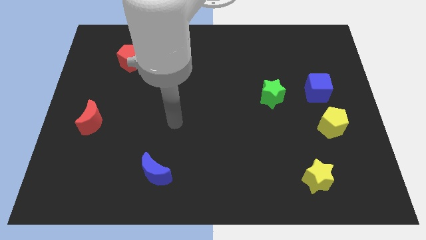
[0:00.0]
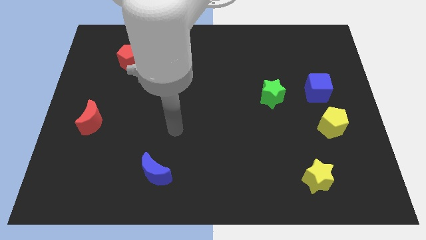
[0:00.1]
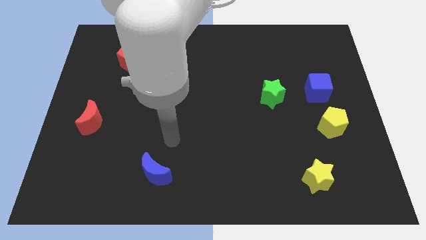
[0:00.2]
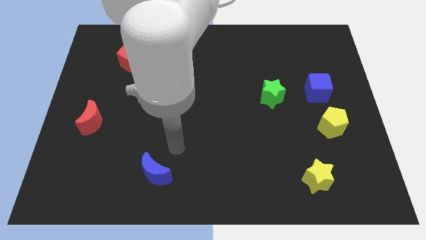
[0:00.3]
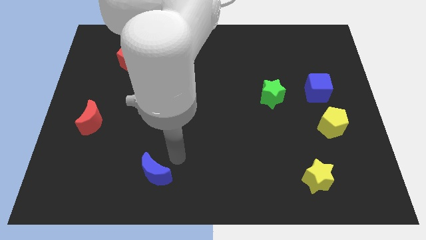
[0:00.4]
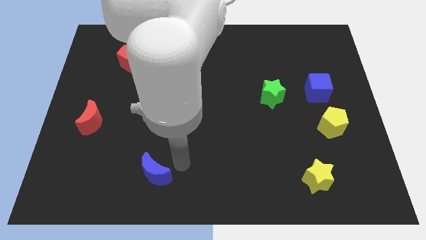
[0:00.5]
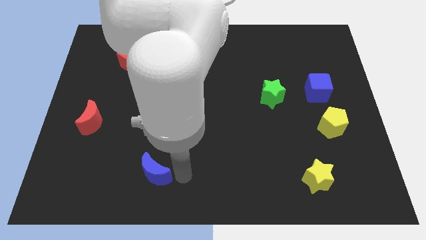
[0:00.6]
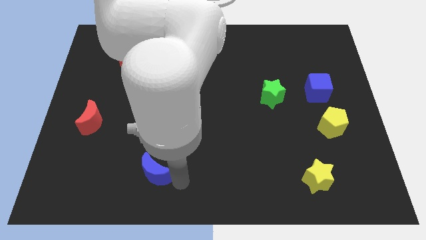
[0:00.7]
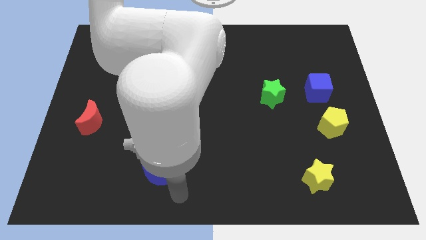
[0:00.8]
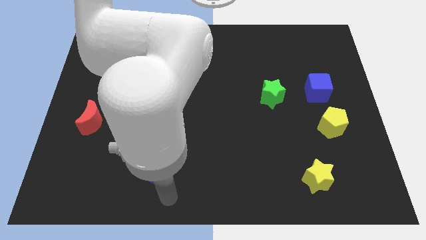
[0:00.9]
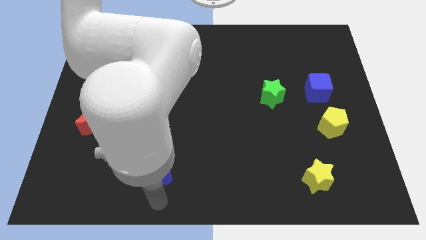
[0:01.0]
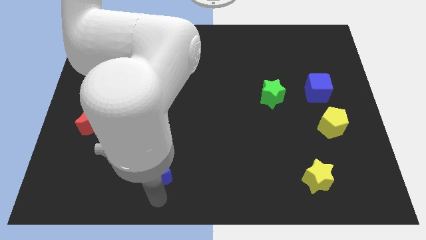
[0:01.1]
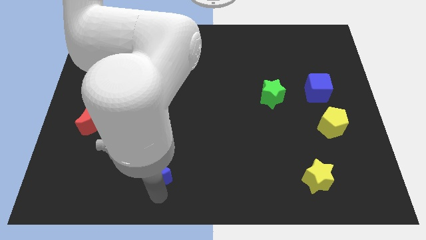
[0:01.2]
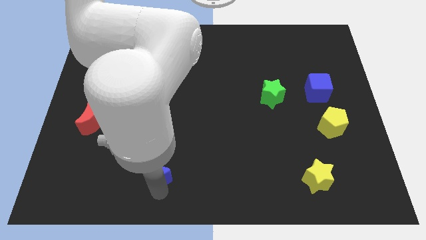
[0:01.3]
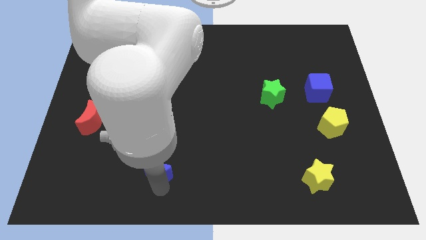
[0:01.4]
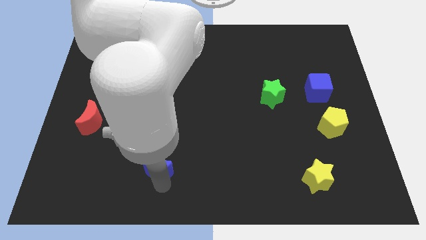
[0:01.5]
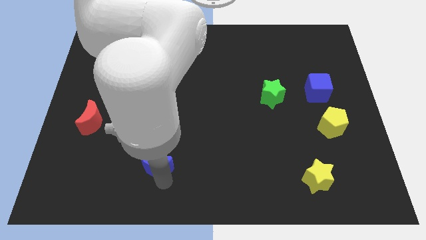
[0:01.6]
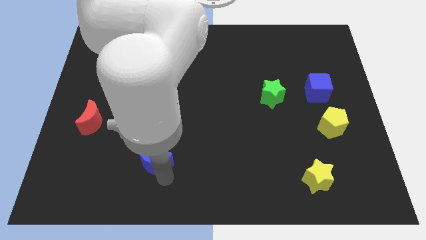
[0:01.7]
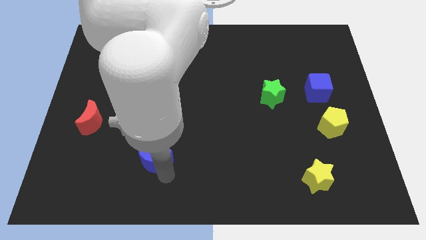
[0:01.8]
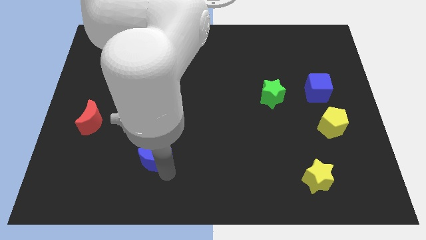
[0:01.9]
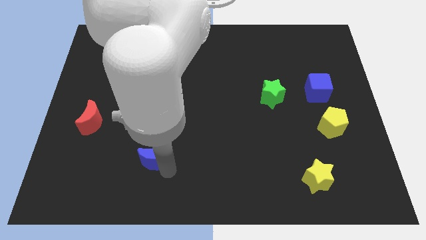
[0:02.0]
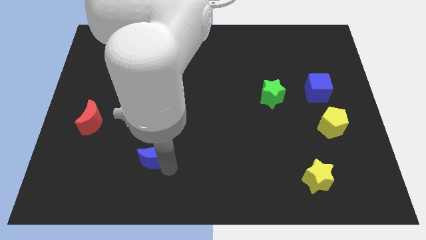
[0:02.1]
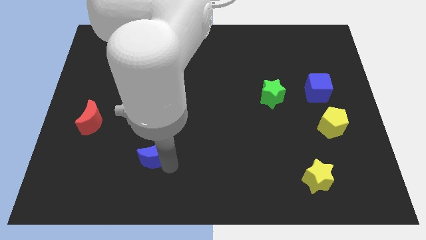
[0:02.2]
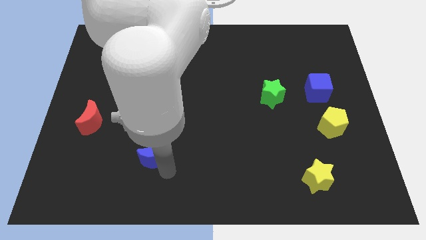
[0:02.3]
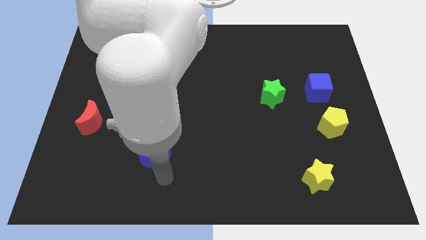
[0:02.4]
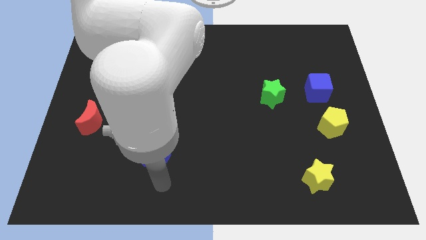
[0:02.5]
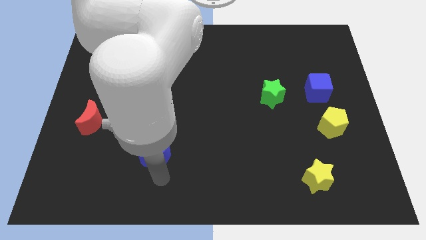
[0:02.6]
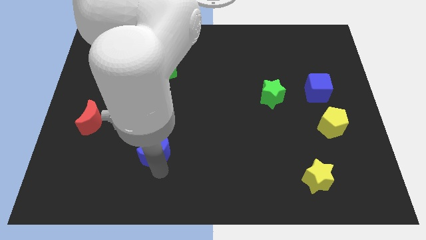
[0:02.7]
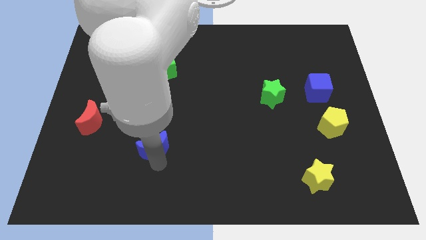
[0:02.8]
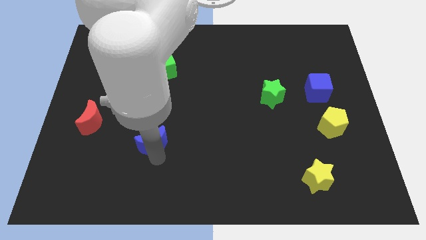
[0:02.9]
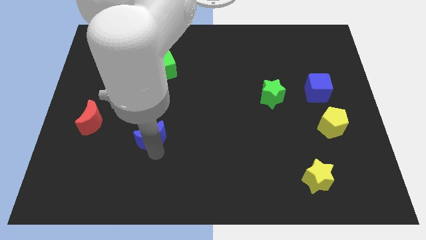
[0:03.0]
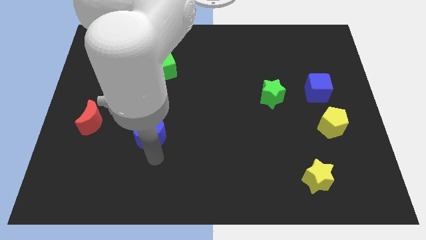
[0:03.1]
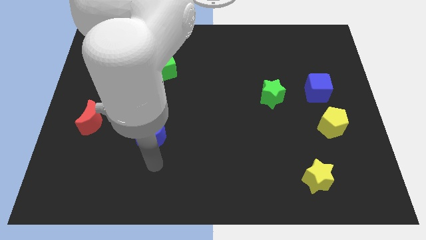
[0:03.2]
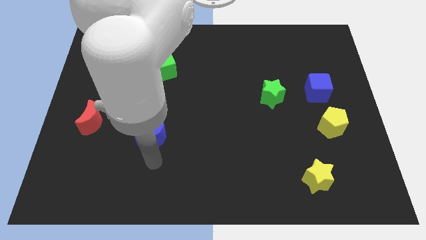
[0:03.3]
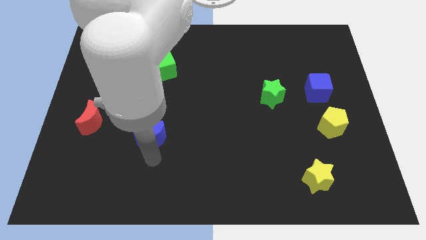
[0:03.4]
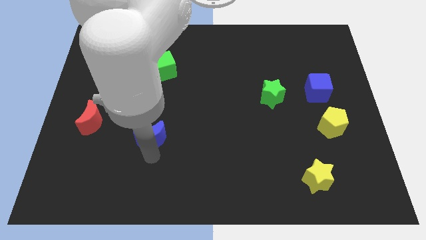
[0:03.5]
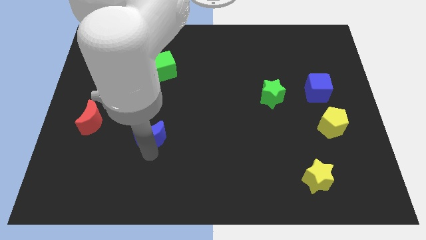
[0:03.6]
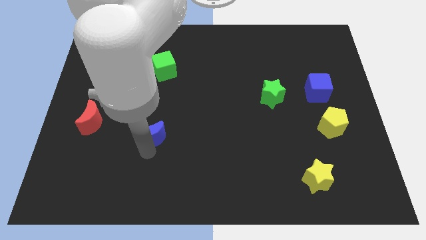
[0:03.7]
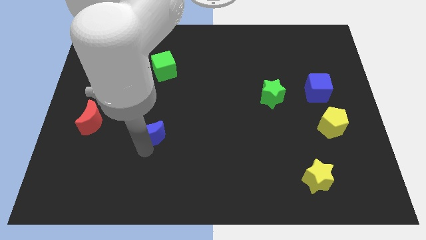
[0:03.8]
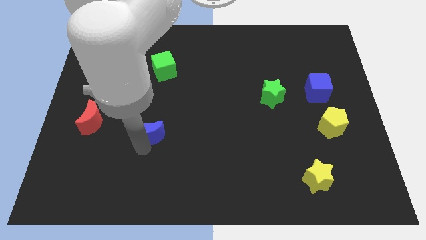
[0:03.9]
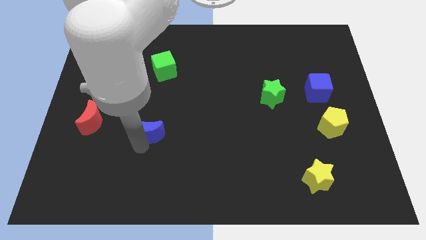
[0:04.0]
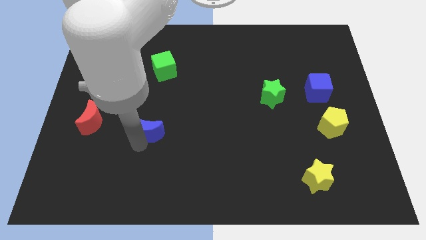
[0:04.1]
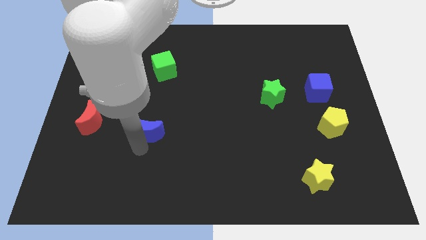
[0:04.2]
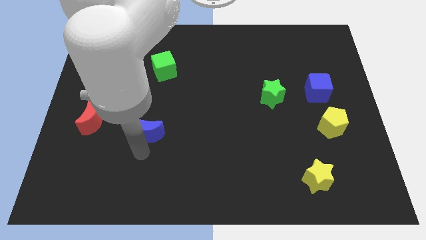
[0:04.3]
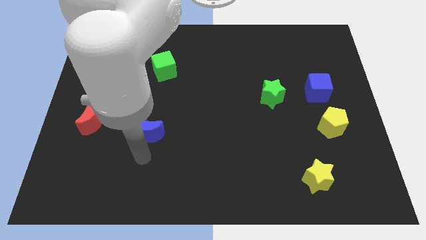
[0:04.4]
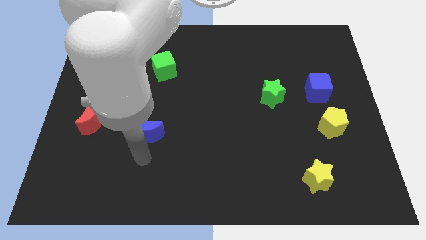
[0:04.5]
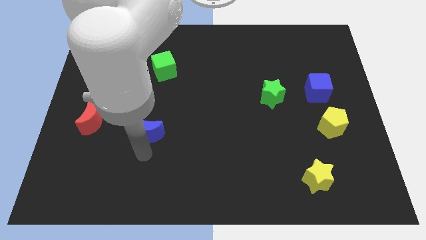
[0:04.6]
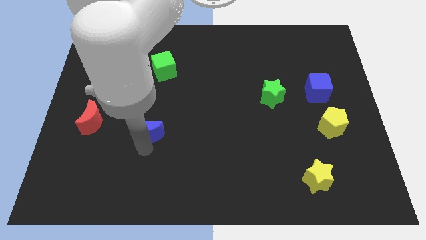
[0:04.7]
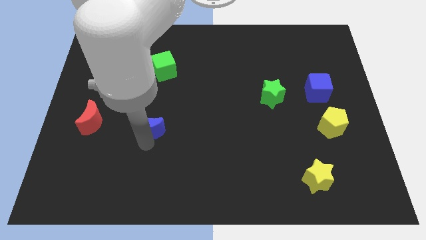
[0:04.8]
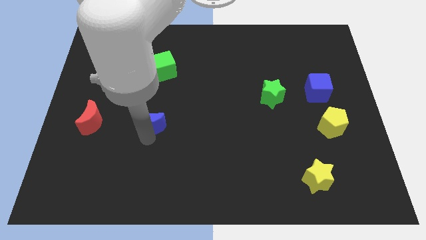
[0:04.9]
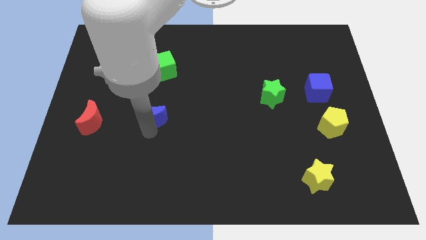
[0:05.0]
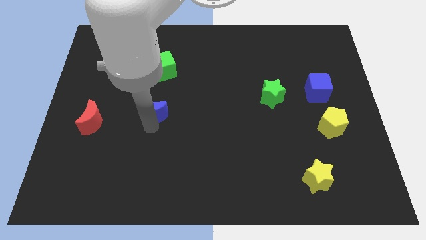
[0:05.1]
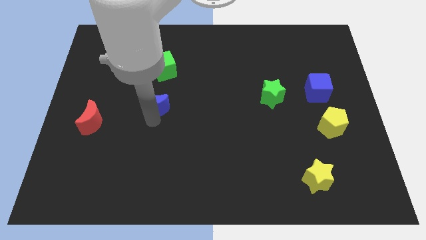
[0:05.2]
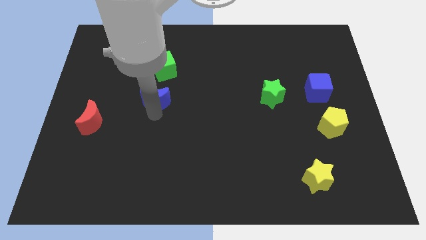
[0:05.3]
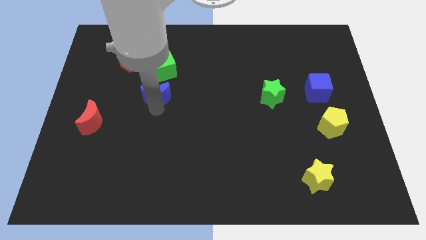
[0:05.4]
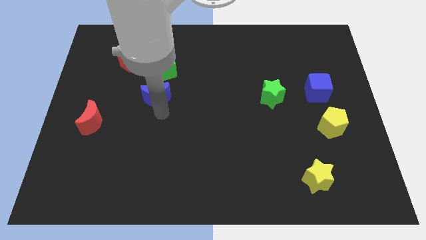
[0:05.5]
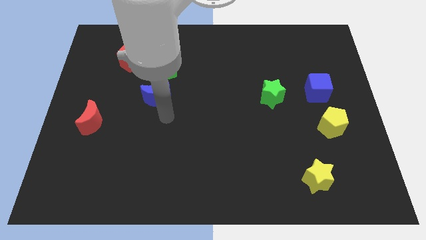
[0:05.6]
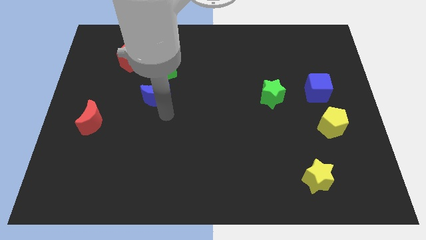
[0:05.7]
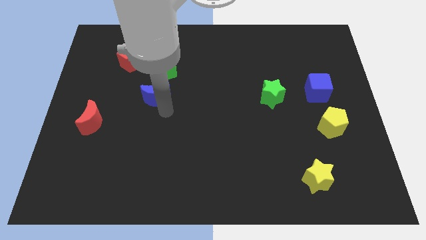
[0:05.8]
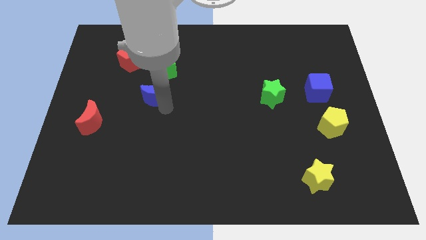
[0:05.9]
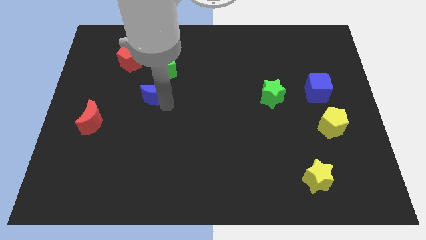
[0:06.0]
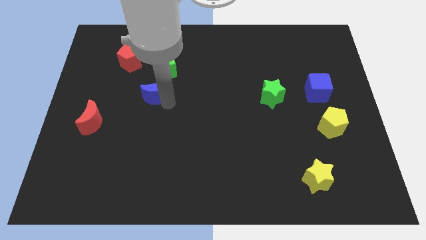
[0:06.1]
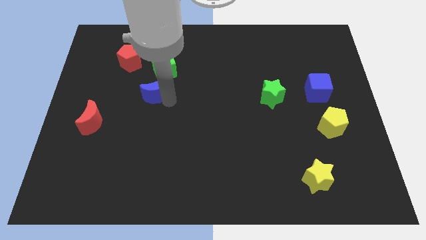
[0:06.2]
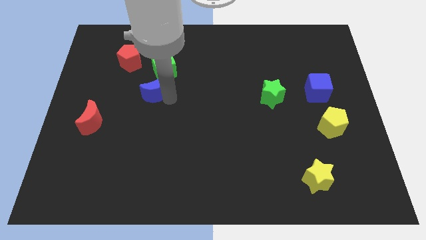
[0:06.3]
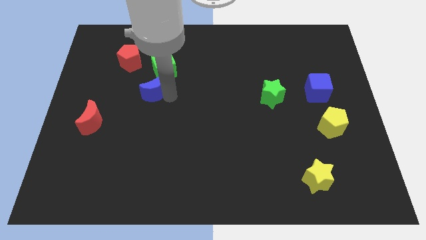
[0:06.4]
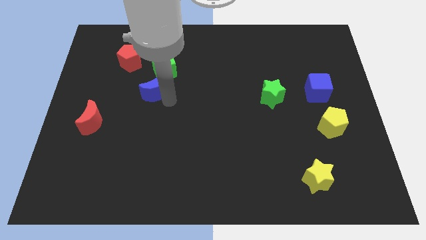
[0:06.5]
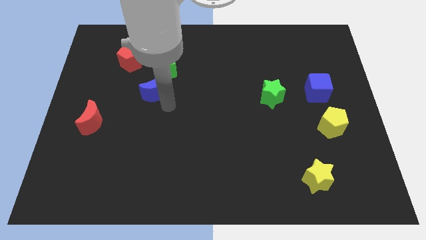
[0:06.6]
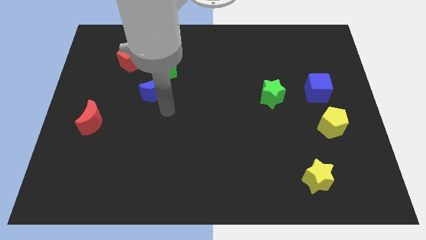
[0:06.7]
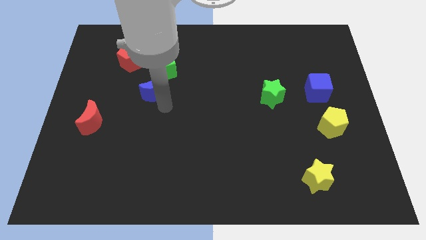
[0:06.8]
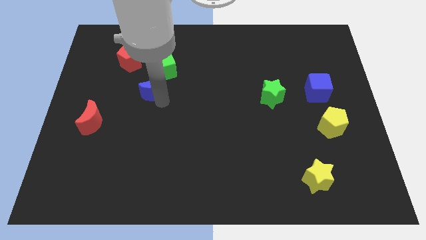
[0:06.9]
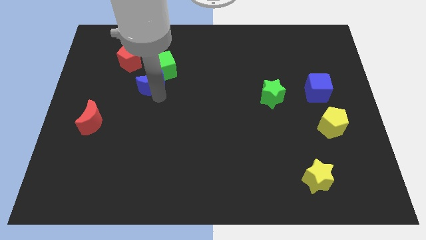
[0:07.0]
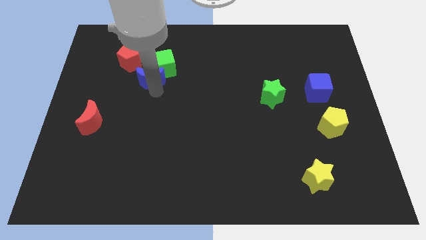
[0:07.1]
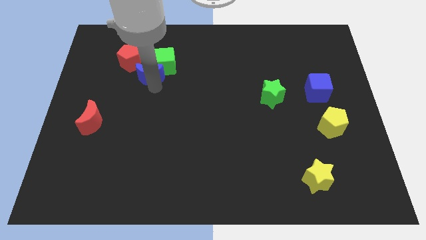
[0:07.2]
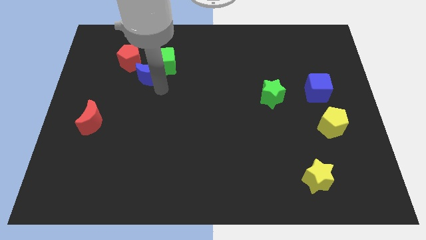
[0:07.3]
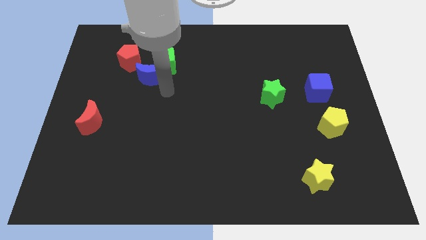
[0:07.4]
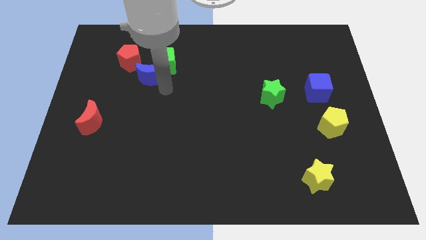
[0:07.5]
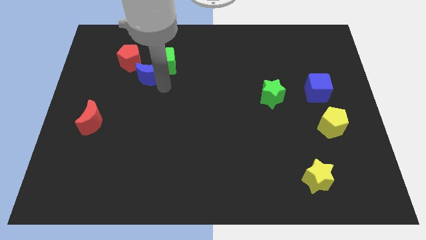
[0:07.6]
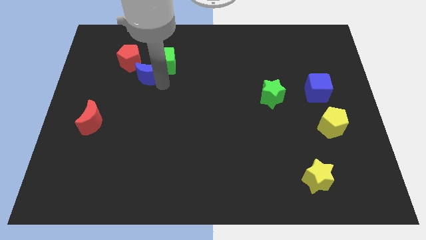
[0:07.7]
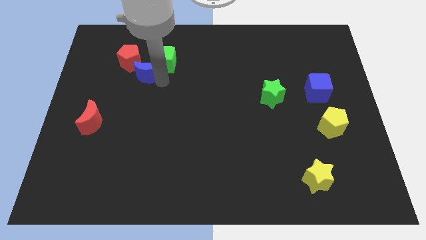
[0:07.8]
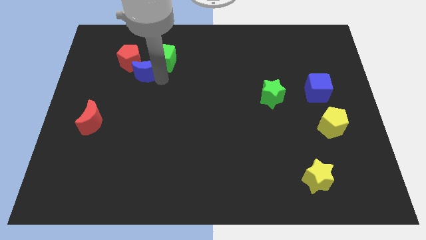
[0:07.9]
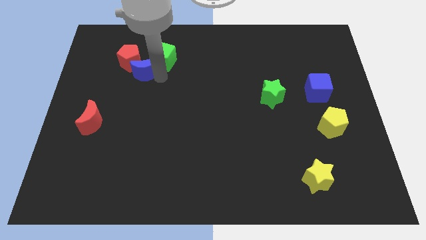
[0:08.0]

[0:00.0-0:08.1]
push the blue moon next to the red pentagon
